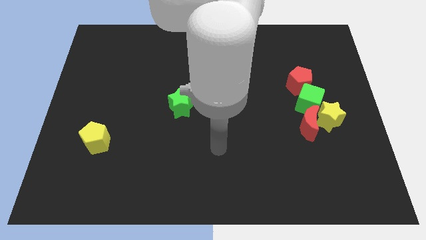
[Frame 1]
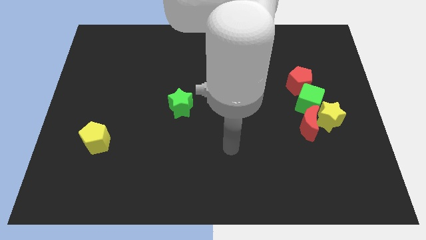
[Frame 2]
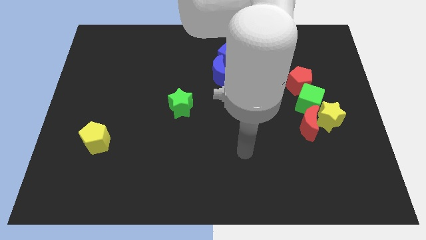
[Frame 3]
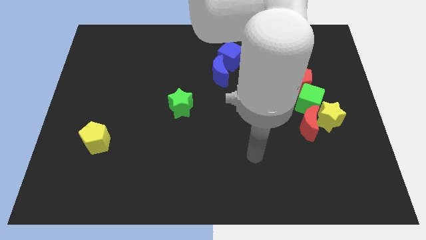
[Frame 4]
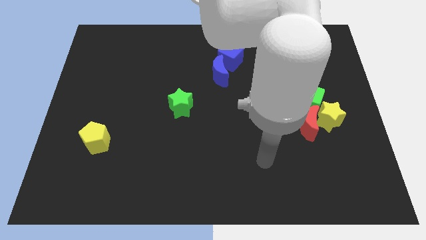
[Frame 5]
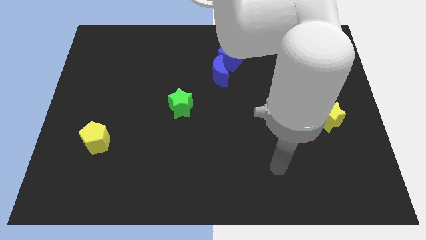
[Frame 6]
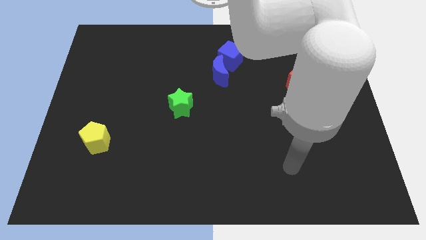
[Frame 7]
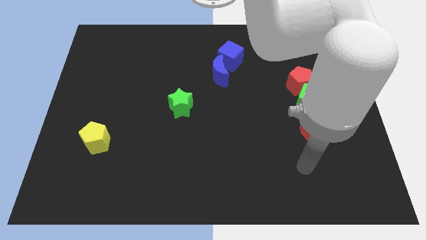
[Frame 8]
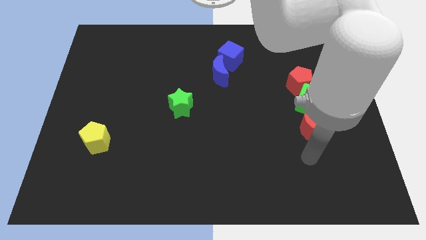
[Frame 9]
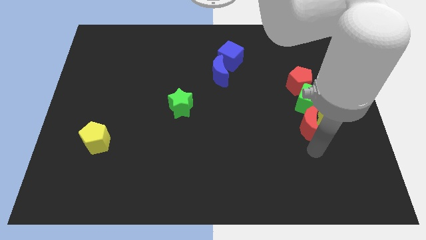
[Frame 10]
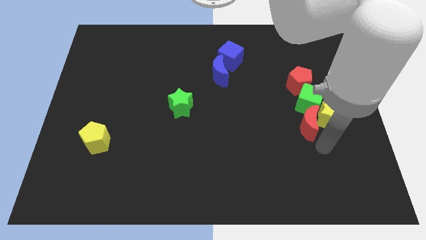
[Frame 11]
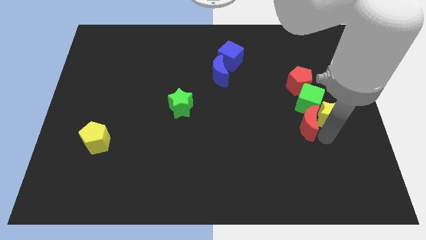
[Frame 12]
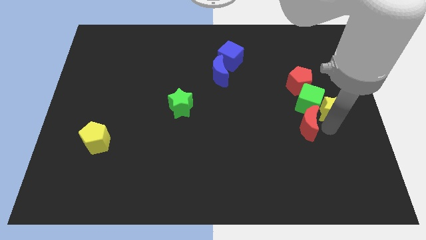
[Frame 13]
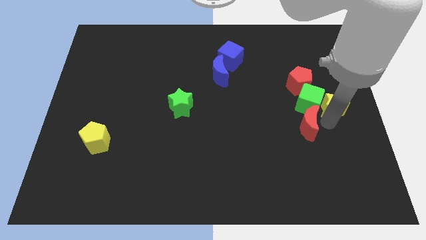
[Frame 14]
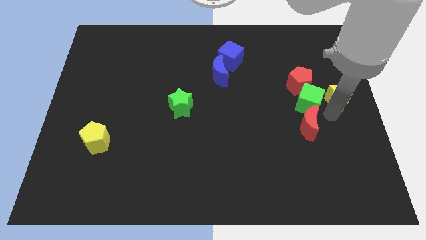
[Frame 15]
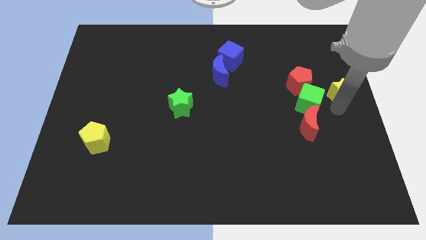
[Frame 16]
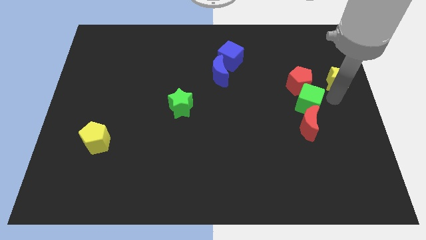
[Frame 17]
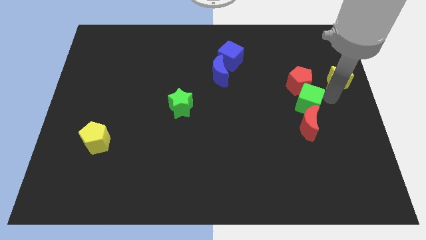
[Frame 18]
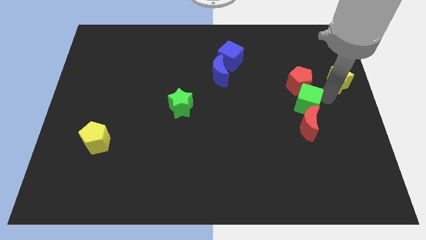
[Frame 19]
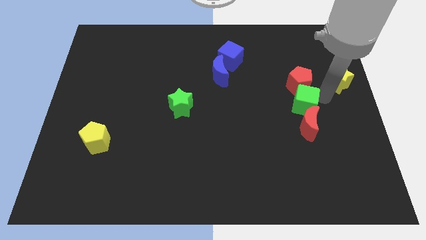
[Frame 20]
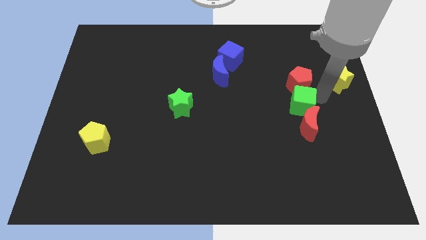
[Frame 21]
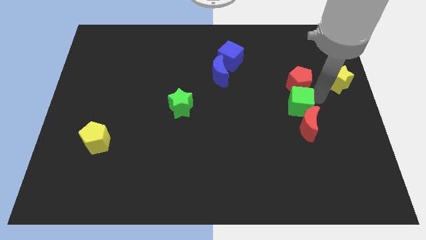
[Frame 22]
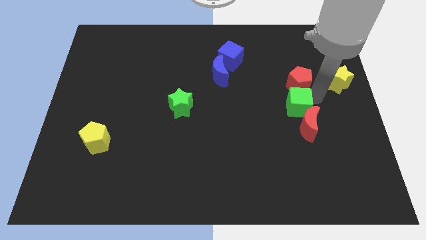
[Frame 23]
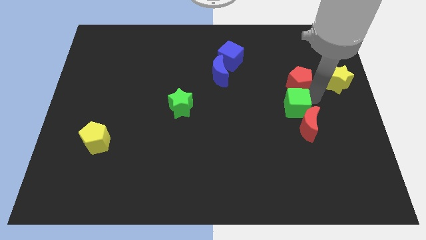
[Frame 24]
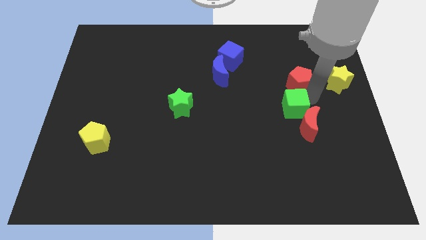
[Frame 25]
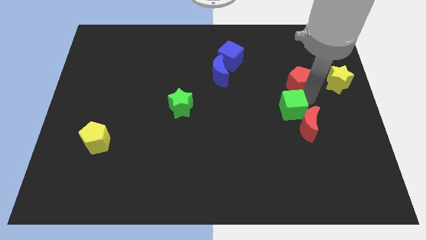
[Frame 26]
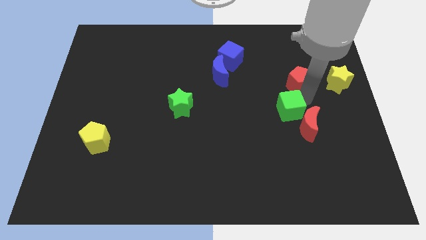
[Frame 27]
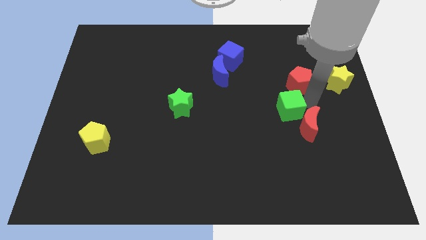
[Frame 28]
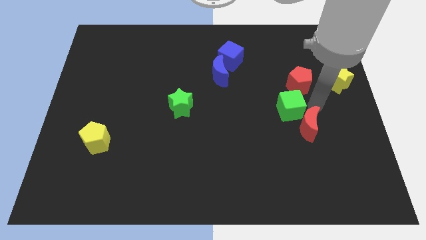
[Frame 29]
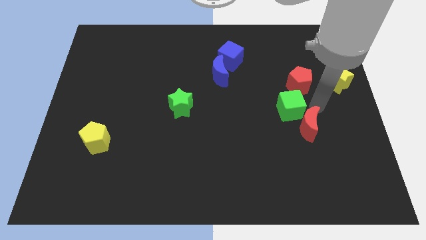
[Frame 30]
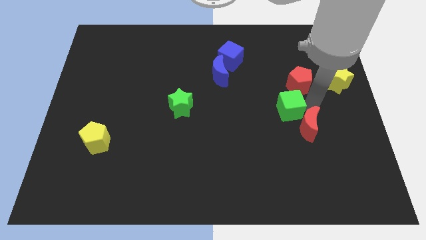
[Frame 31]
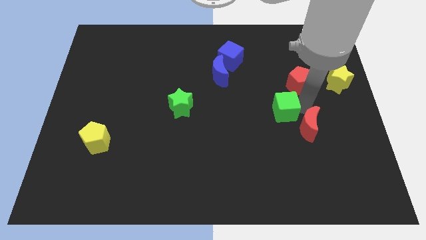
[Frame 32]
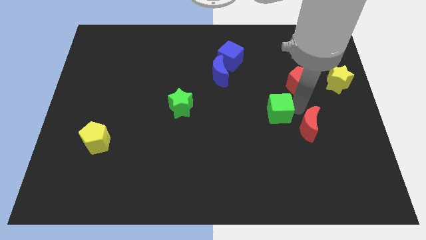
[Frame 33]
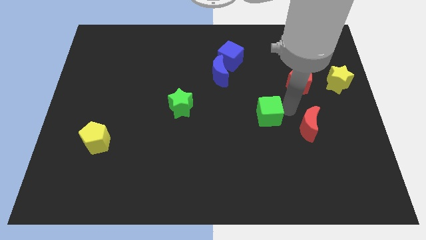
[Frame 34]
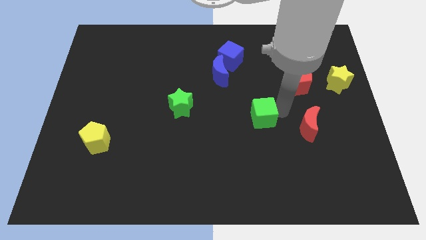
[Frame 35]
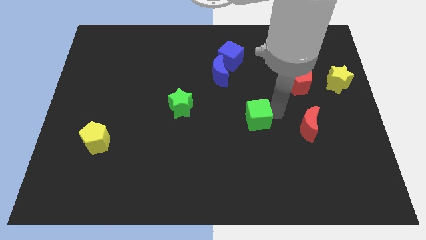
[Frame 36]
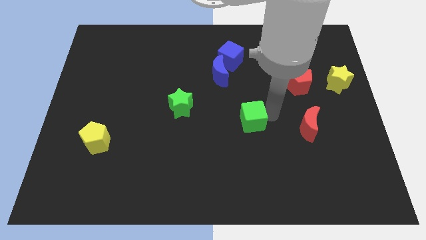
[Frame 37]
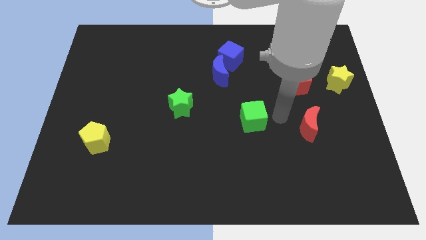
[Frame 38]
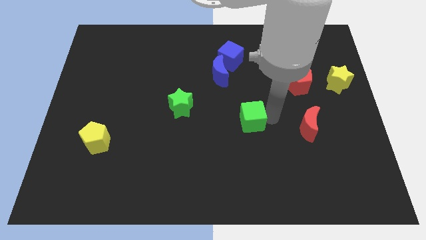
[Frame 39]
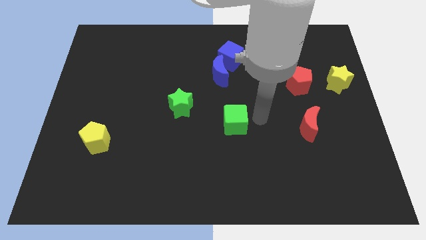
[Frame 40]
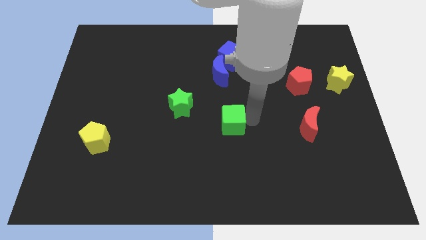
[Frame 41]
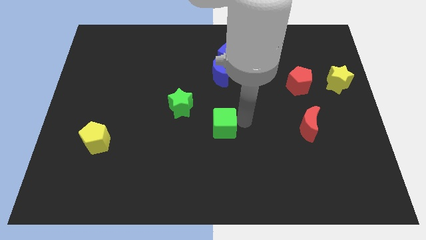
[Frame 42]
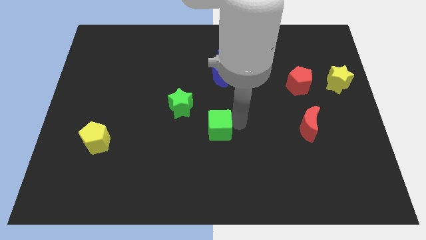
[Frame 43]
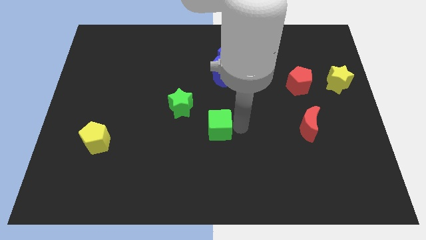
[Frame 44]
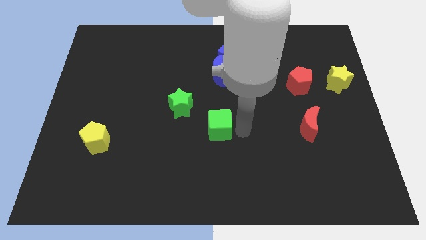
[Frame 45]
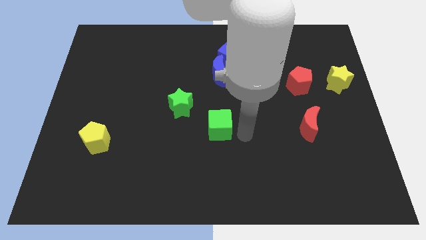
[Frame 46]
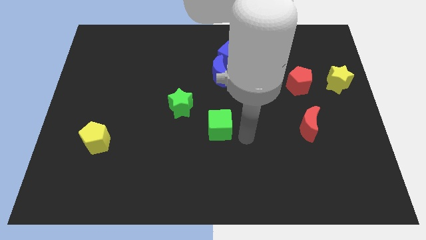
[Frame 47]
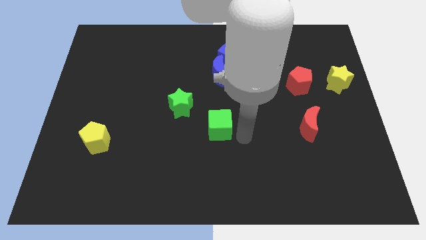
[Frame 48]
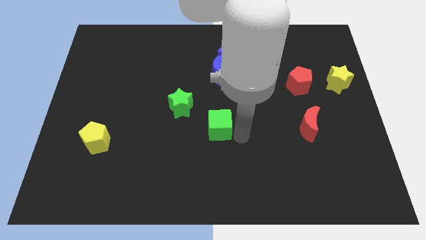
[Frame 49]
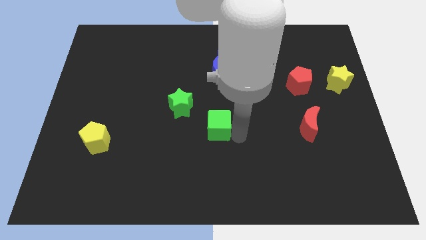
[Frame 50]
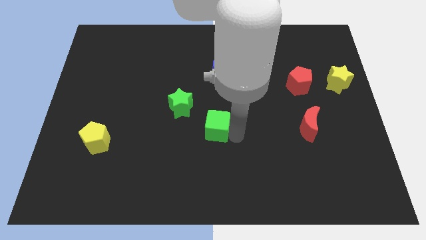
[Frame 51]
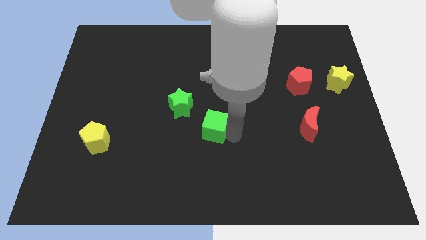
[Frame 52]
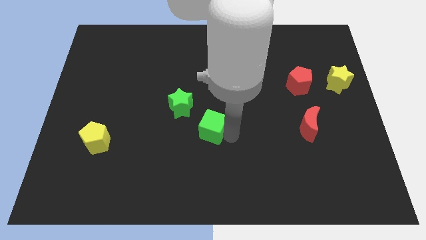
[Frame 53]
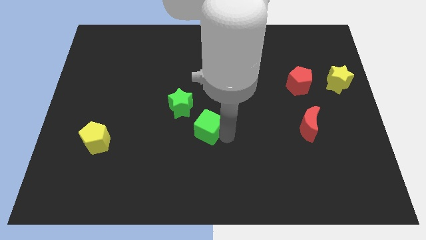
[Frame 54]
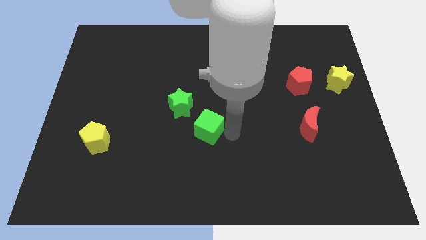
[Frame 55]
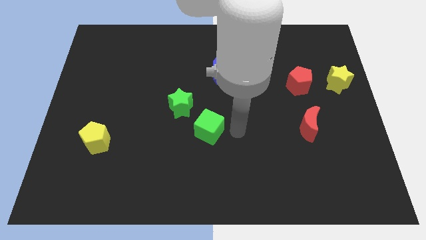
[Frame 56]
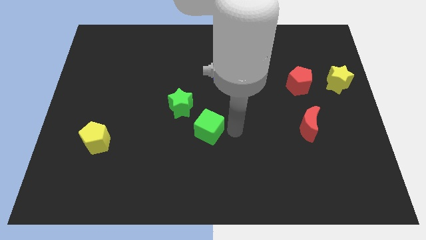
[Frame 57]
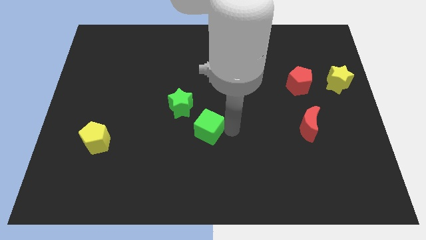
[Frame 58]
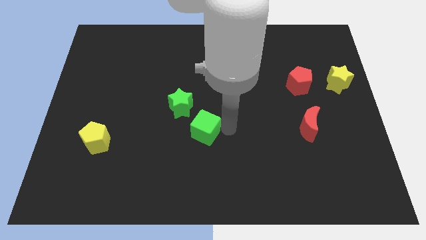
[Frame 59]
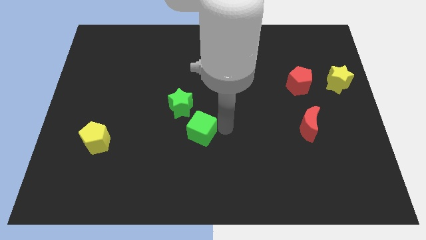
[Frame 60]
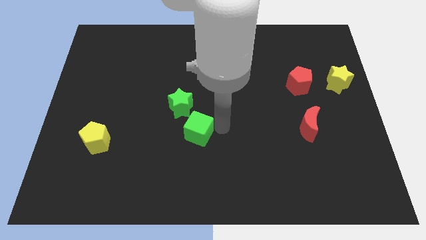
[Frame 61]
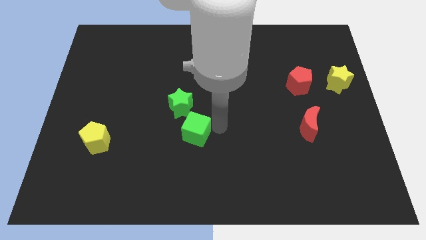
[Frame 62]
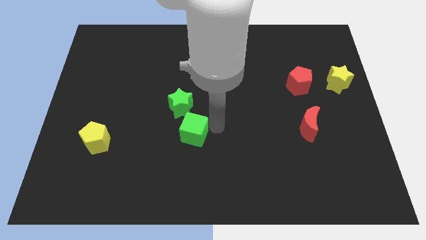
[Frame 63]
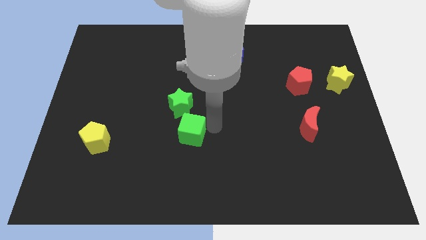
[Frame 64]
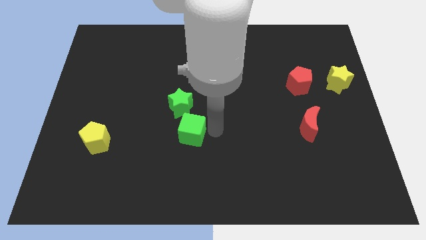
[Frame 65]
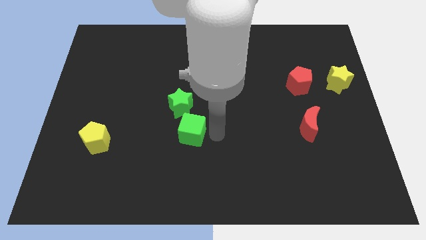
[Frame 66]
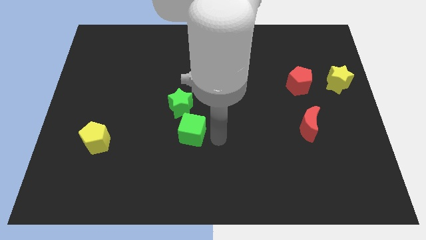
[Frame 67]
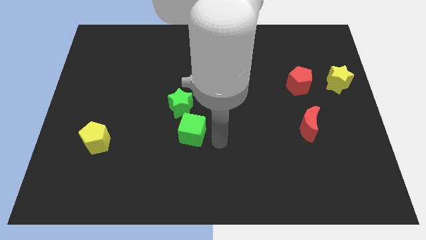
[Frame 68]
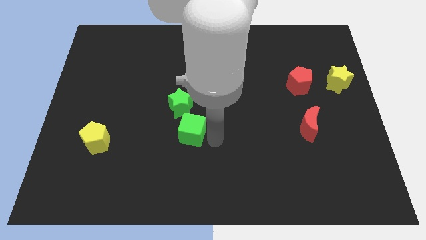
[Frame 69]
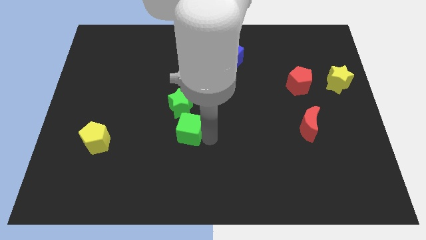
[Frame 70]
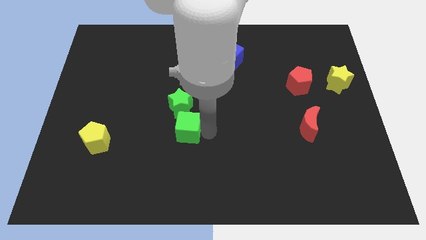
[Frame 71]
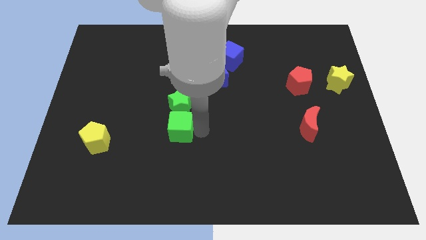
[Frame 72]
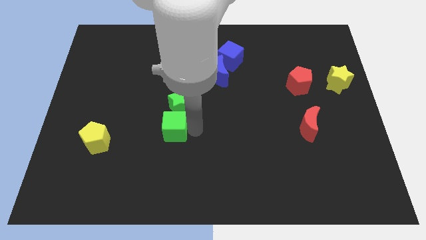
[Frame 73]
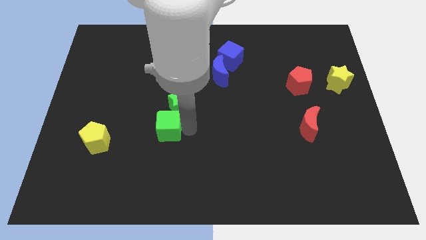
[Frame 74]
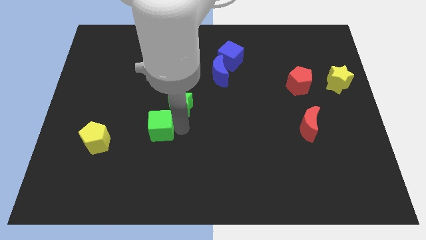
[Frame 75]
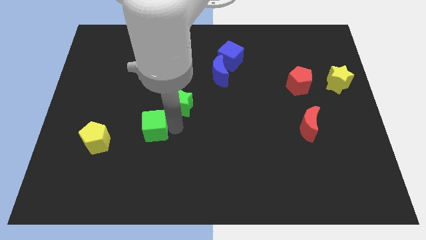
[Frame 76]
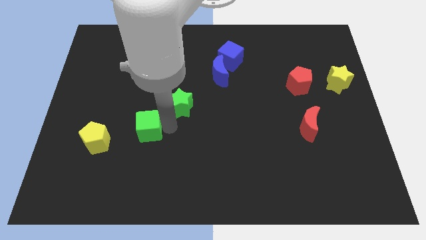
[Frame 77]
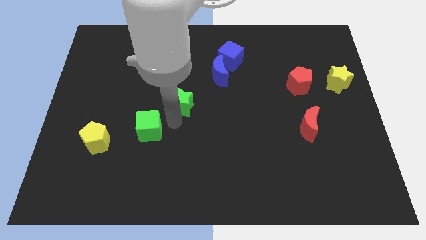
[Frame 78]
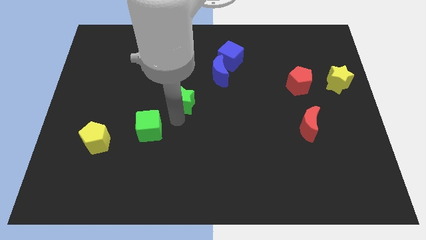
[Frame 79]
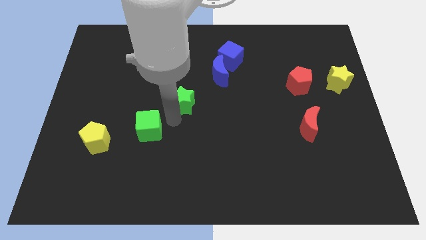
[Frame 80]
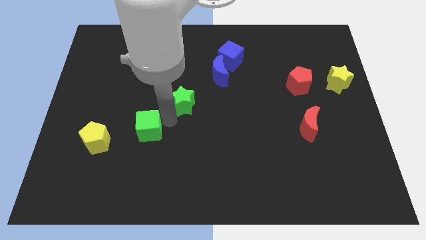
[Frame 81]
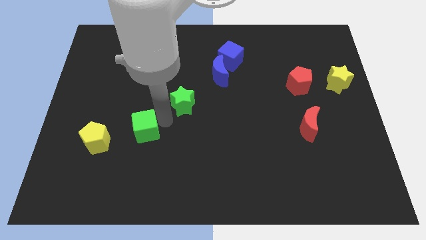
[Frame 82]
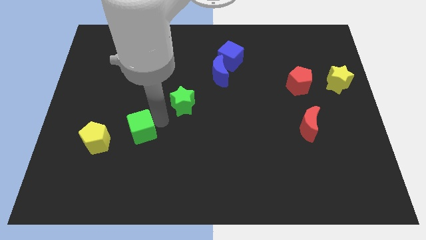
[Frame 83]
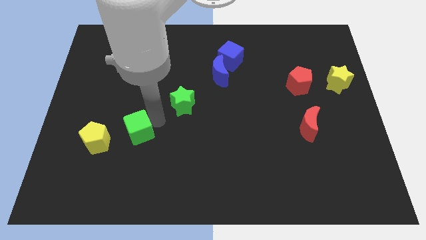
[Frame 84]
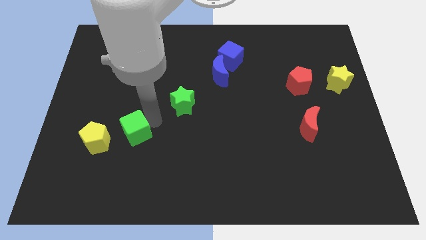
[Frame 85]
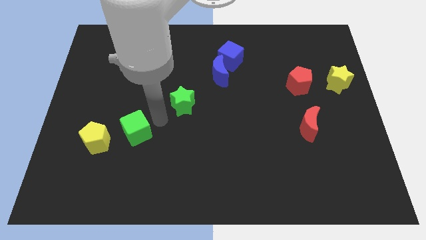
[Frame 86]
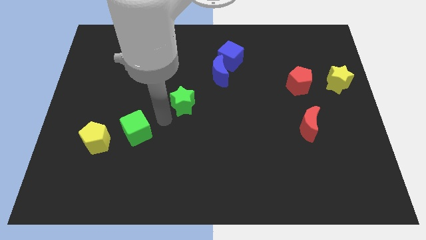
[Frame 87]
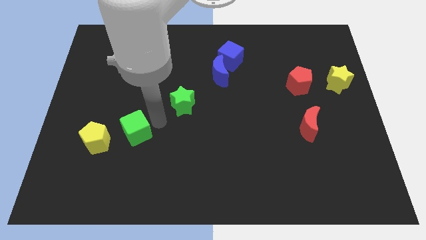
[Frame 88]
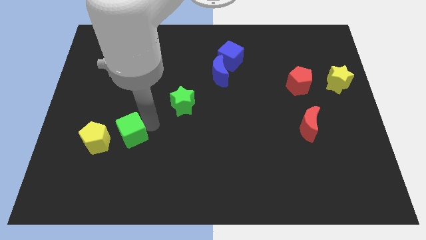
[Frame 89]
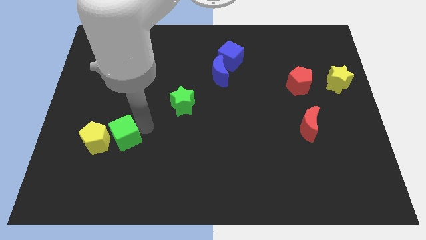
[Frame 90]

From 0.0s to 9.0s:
slide the green cube to the yellow pentagon
